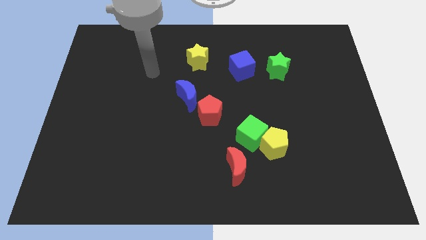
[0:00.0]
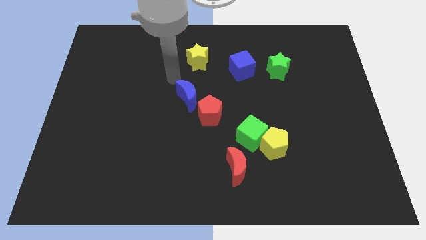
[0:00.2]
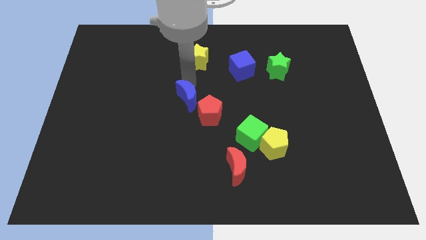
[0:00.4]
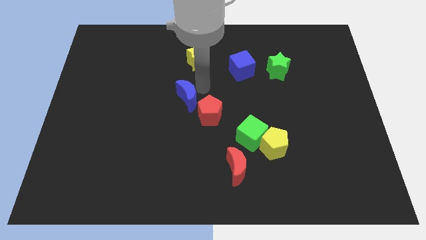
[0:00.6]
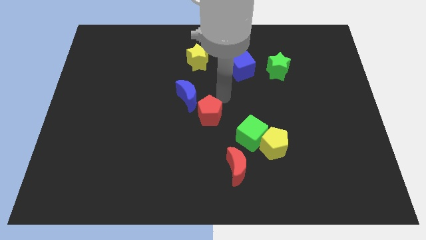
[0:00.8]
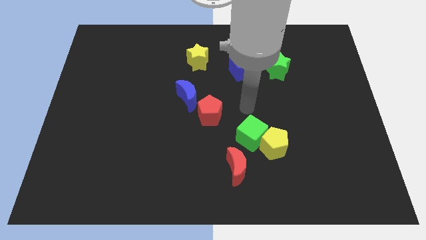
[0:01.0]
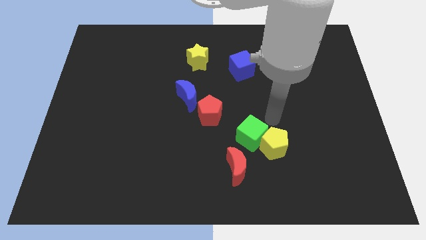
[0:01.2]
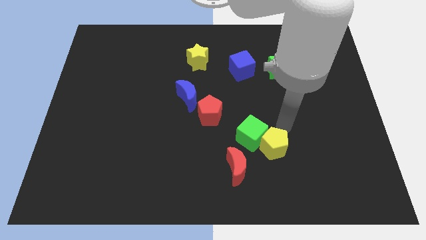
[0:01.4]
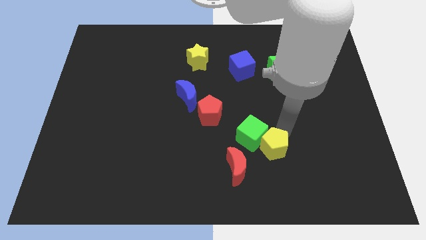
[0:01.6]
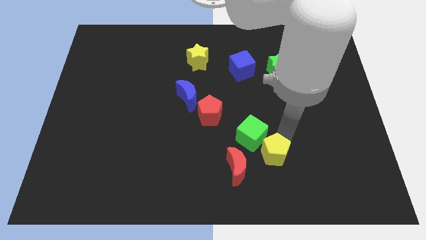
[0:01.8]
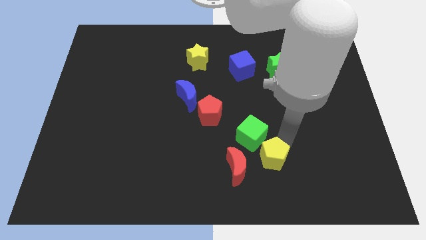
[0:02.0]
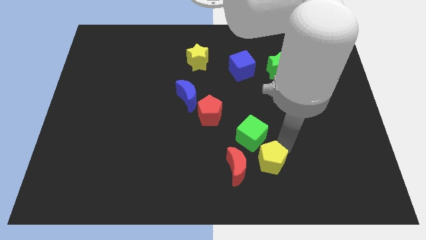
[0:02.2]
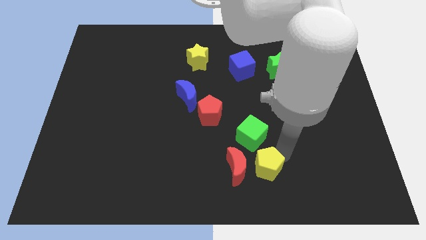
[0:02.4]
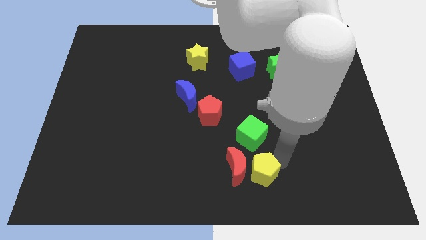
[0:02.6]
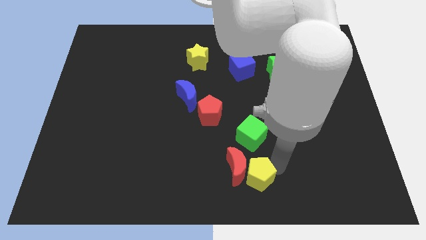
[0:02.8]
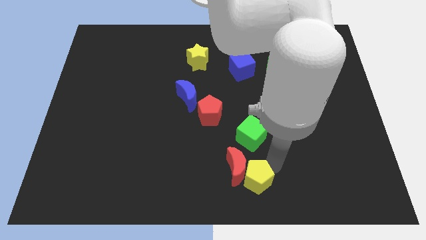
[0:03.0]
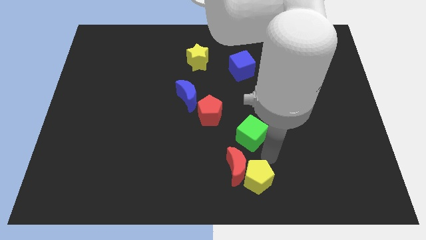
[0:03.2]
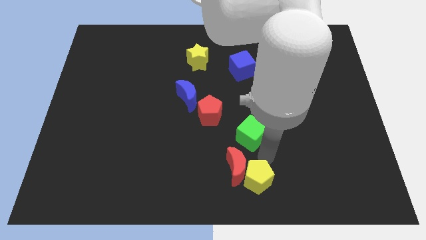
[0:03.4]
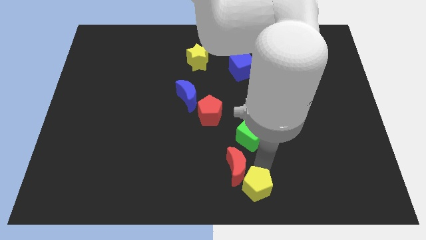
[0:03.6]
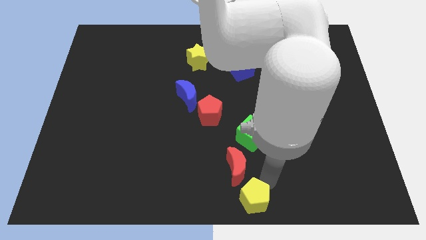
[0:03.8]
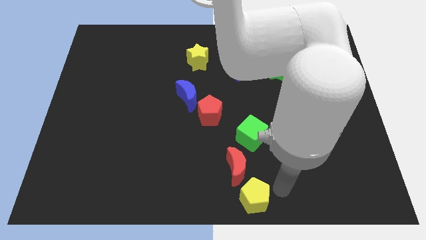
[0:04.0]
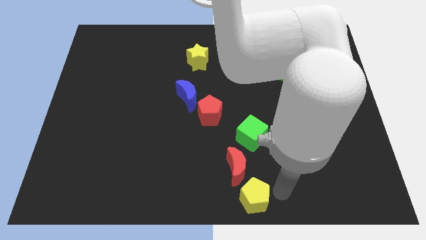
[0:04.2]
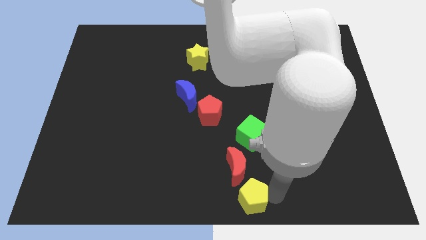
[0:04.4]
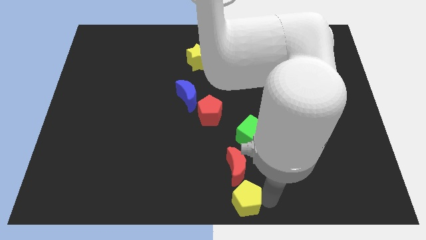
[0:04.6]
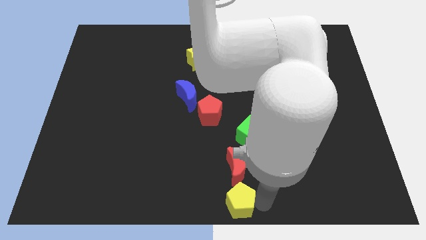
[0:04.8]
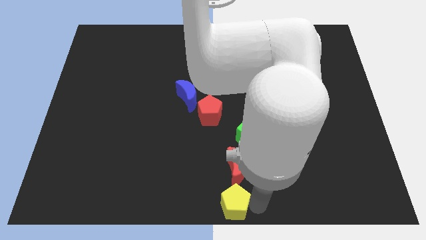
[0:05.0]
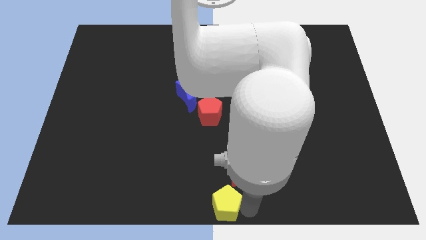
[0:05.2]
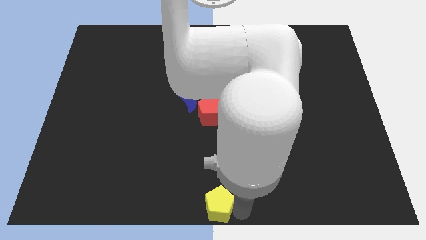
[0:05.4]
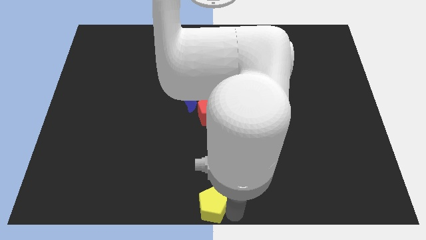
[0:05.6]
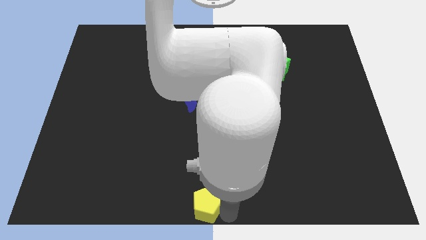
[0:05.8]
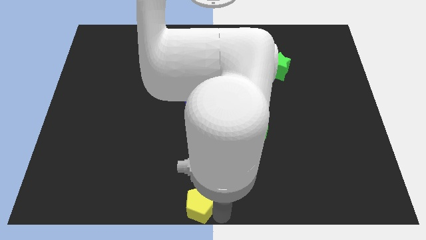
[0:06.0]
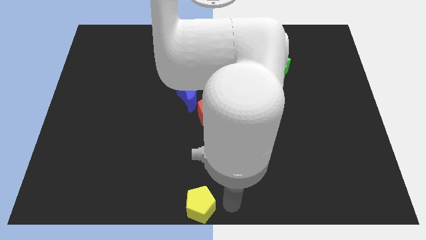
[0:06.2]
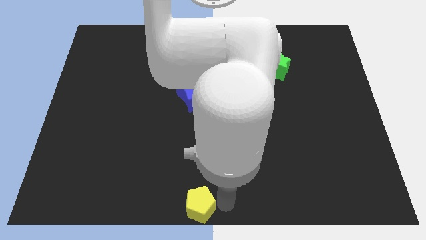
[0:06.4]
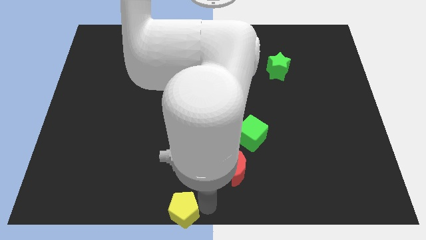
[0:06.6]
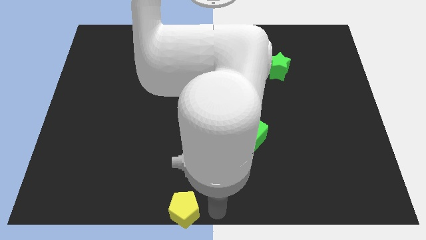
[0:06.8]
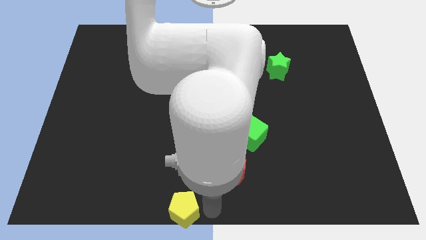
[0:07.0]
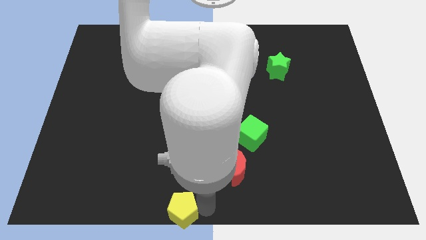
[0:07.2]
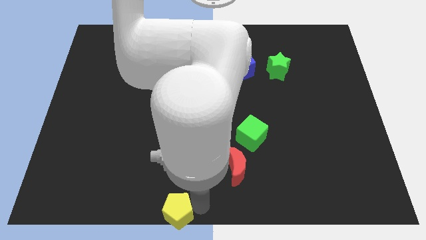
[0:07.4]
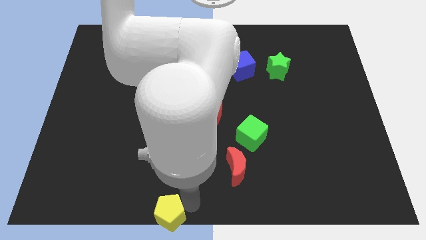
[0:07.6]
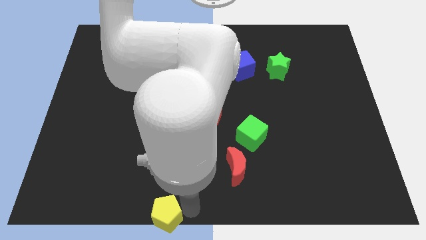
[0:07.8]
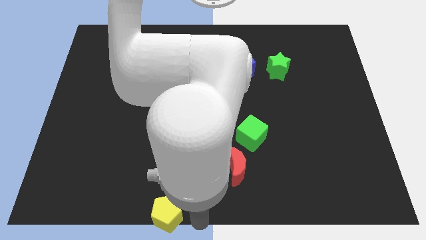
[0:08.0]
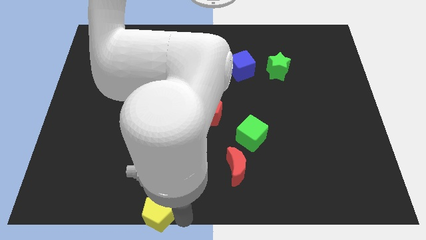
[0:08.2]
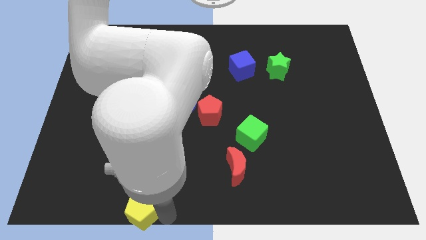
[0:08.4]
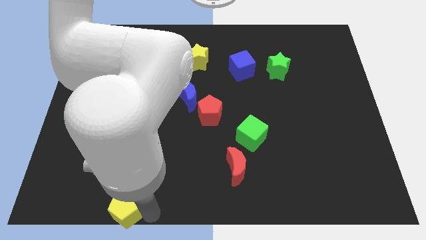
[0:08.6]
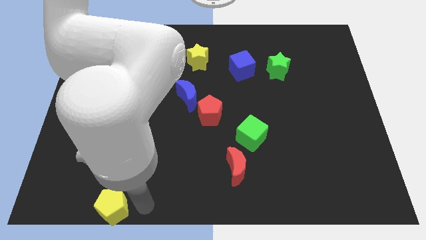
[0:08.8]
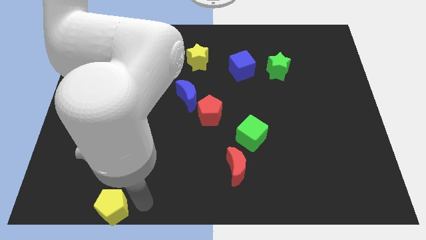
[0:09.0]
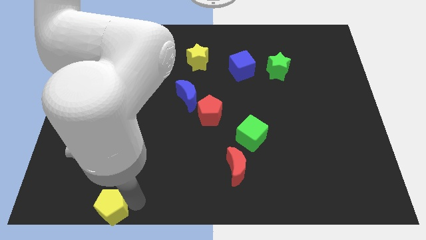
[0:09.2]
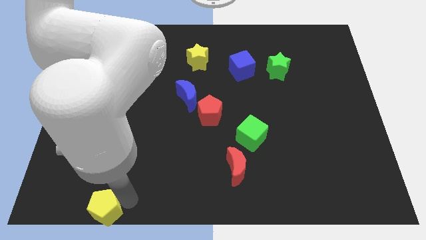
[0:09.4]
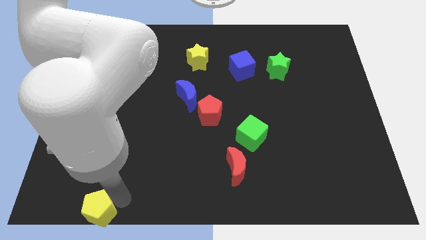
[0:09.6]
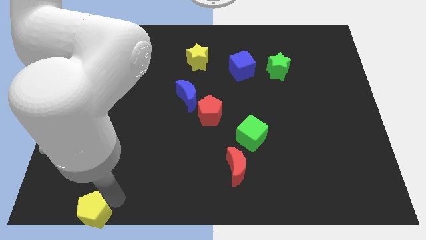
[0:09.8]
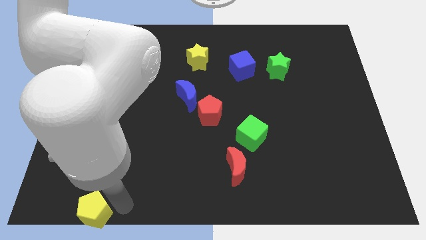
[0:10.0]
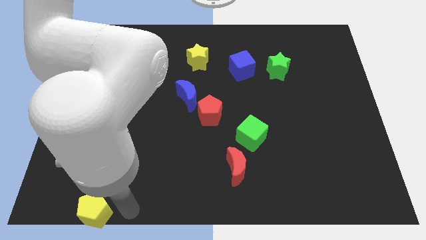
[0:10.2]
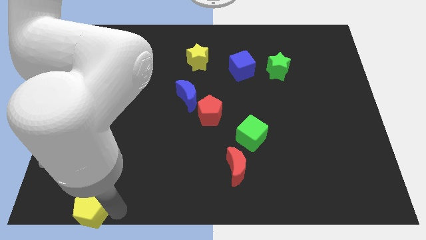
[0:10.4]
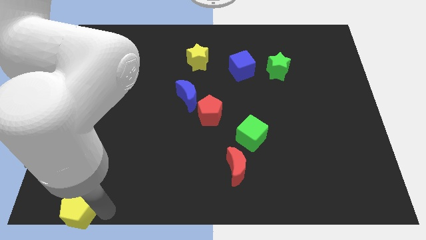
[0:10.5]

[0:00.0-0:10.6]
move the yellow pentagon to the bottom left of the board

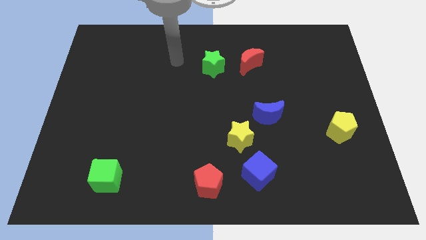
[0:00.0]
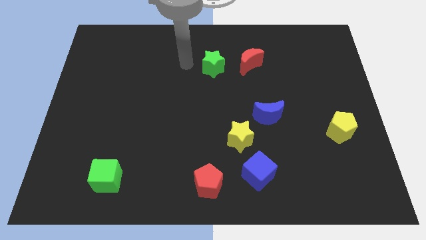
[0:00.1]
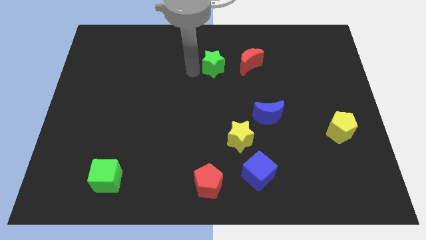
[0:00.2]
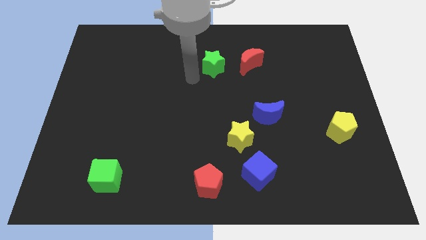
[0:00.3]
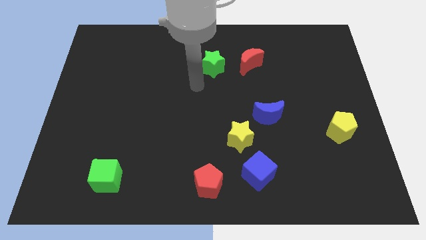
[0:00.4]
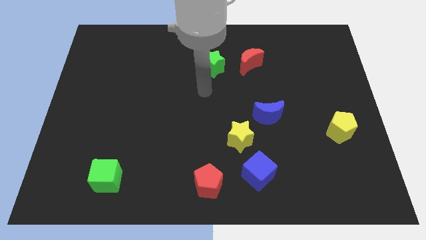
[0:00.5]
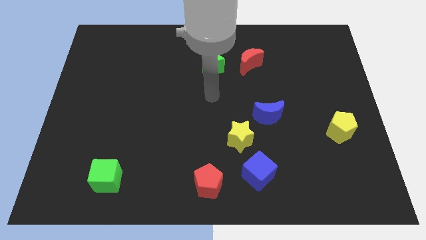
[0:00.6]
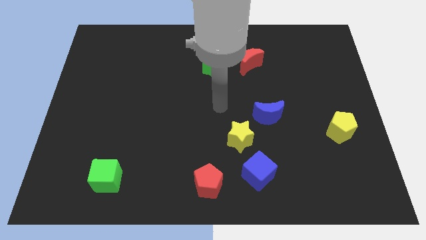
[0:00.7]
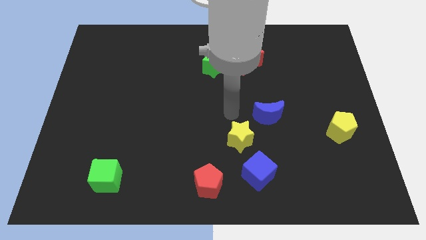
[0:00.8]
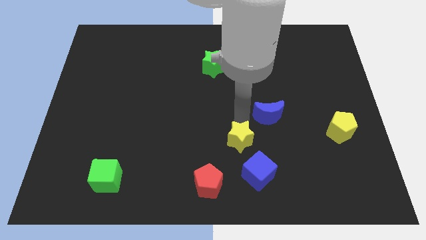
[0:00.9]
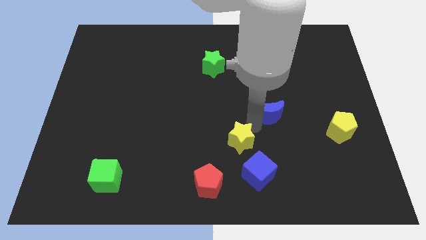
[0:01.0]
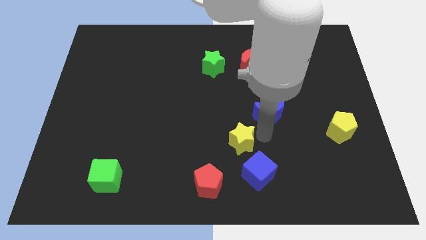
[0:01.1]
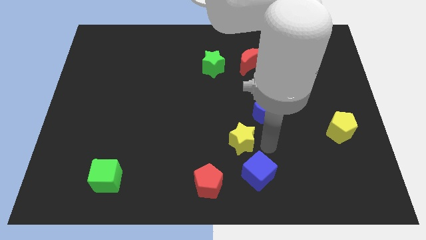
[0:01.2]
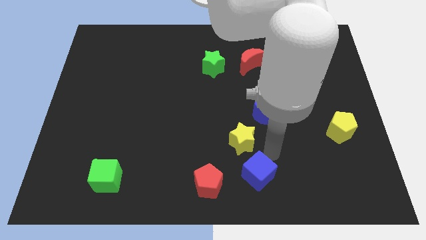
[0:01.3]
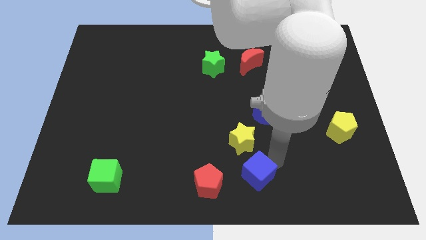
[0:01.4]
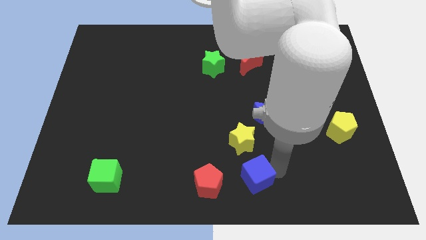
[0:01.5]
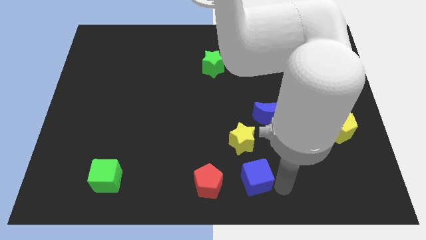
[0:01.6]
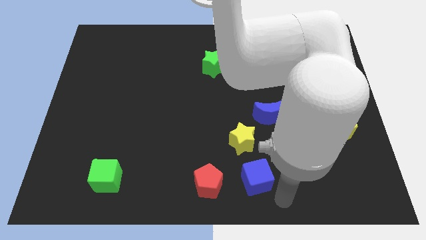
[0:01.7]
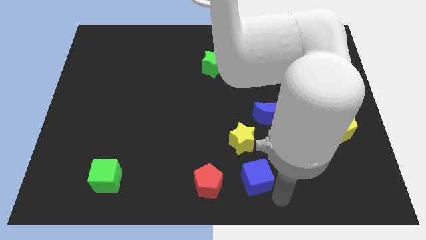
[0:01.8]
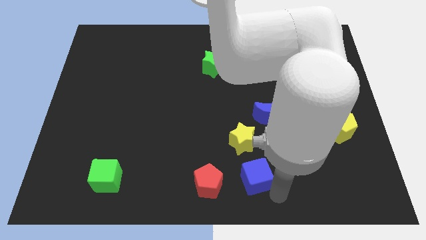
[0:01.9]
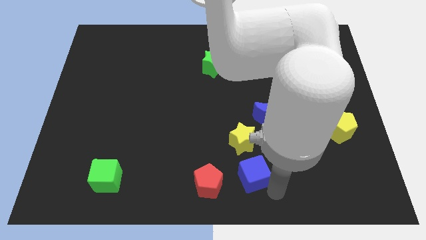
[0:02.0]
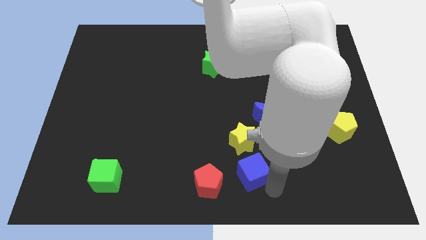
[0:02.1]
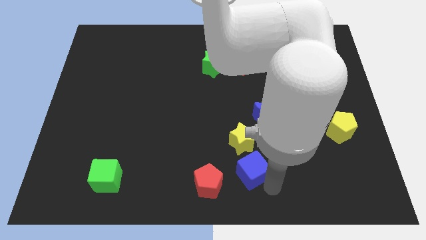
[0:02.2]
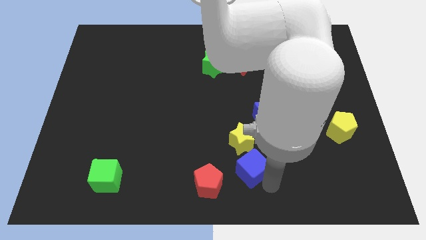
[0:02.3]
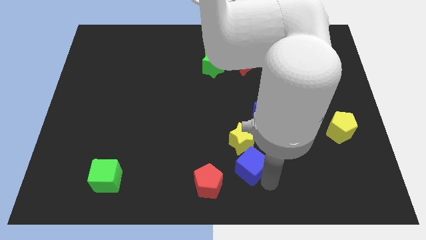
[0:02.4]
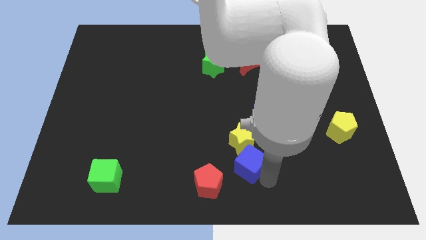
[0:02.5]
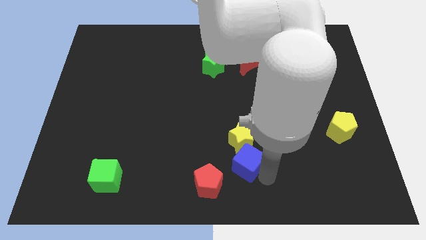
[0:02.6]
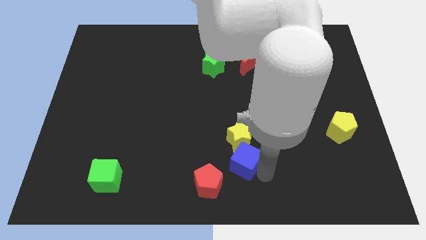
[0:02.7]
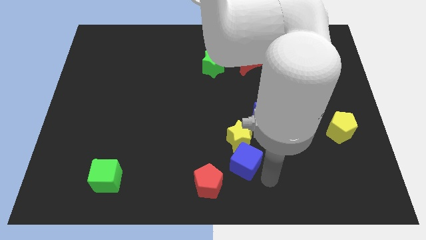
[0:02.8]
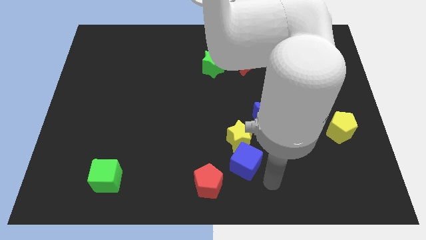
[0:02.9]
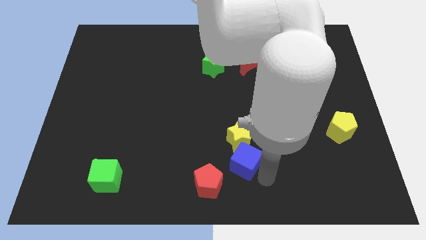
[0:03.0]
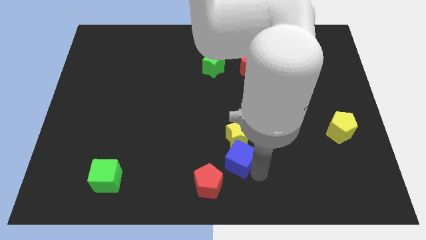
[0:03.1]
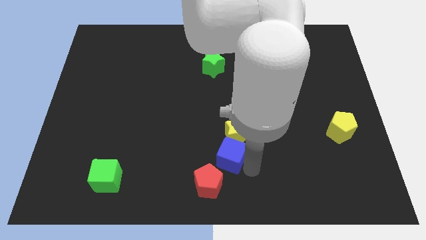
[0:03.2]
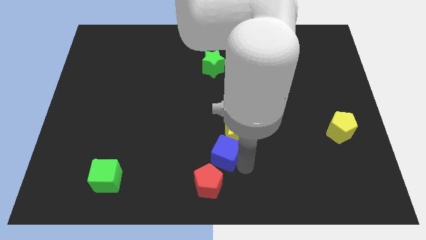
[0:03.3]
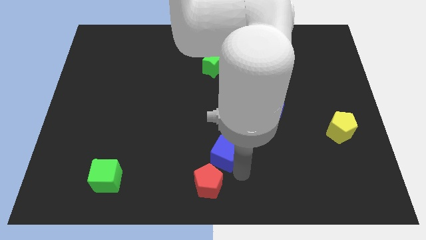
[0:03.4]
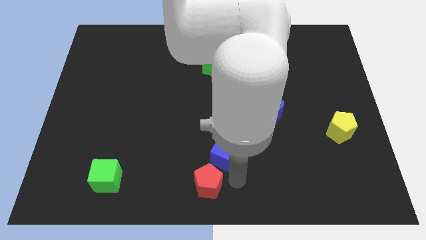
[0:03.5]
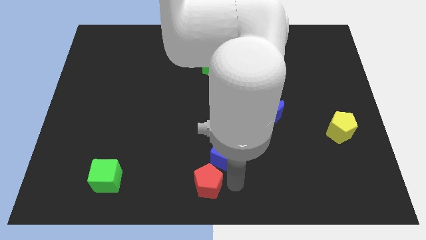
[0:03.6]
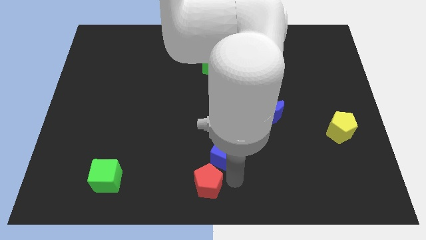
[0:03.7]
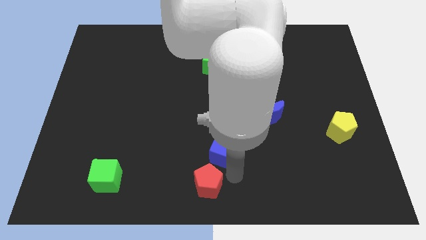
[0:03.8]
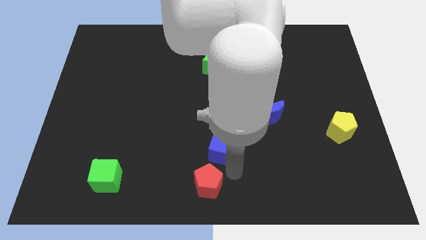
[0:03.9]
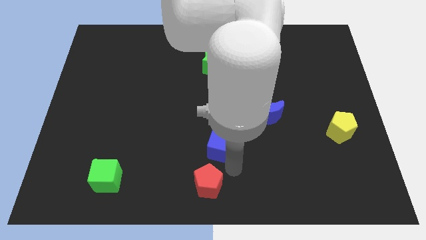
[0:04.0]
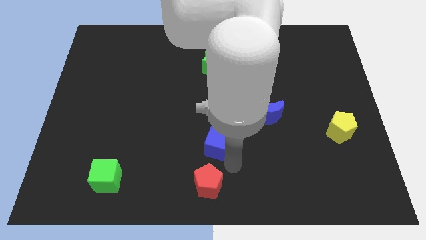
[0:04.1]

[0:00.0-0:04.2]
push the blue cube to the center
